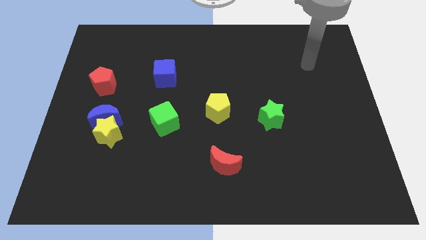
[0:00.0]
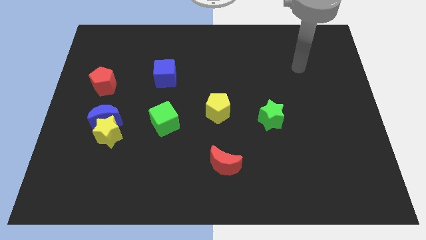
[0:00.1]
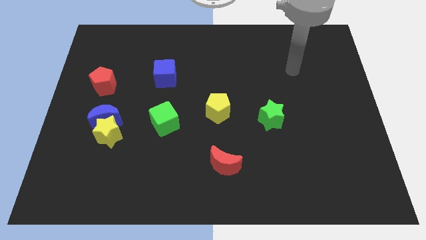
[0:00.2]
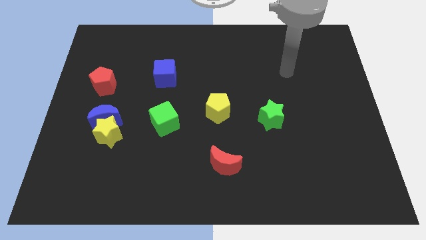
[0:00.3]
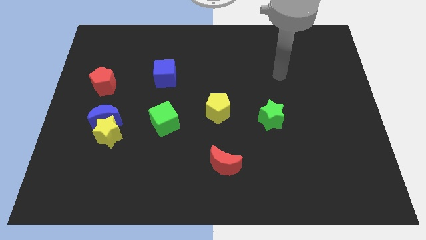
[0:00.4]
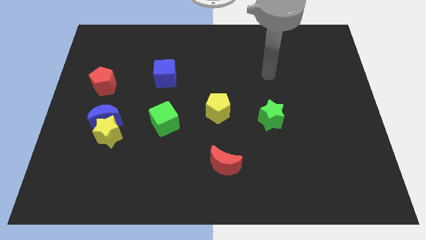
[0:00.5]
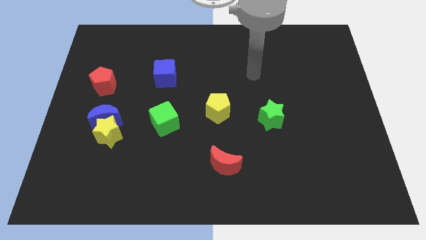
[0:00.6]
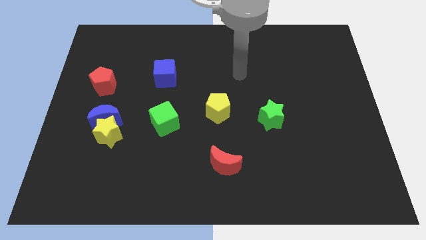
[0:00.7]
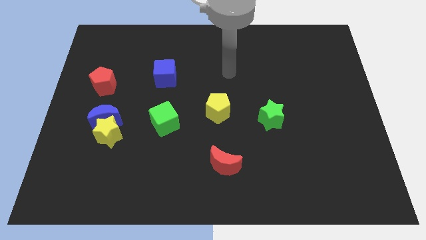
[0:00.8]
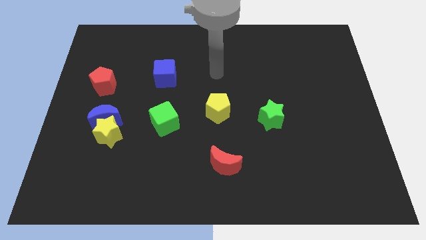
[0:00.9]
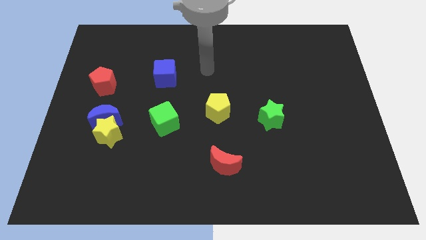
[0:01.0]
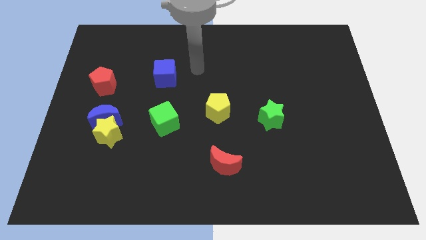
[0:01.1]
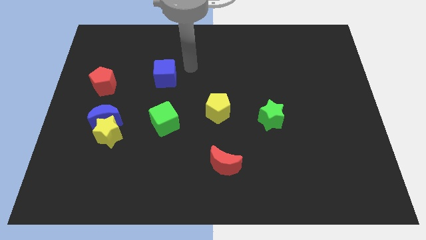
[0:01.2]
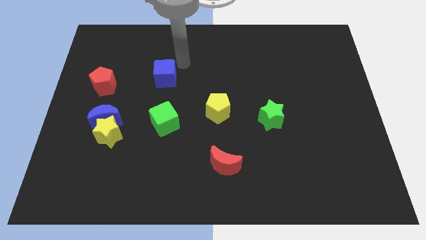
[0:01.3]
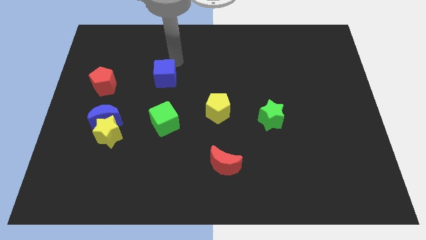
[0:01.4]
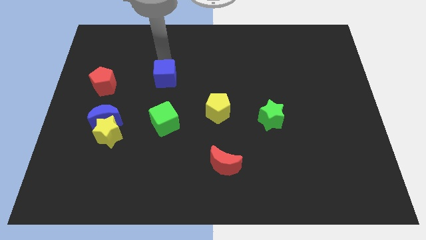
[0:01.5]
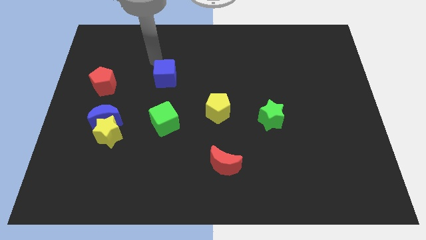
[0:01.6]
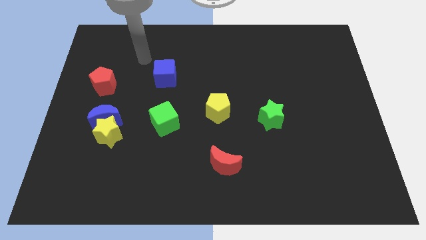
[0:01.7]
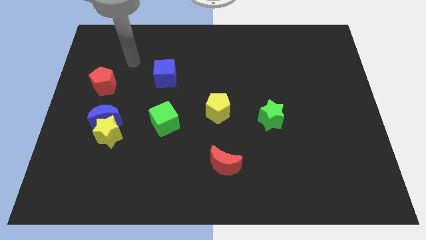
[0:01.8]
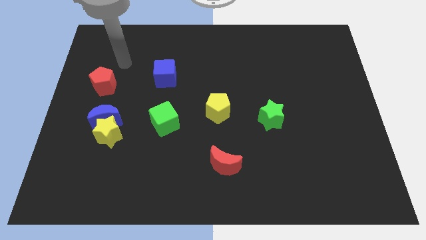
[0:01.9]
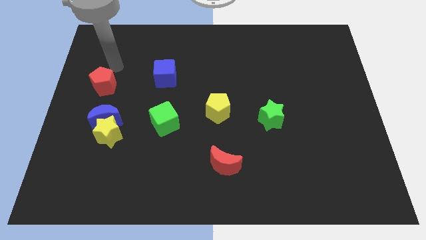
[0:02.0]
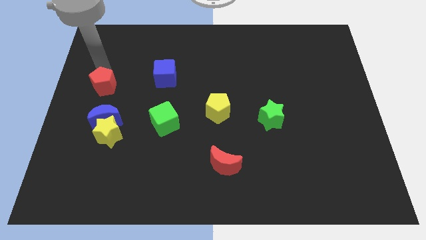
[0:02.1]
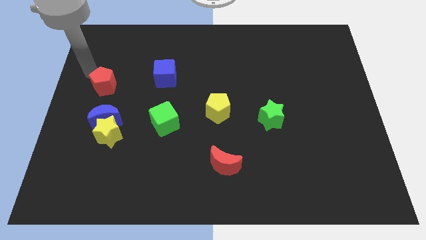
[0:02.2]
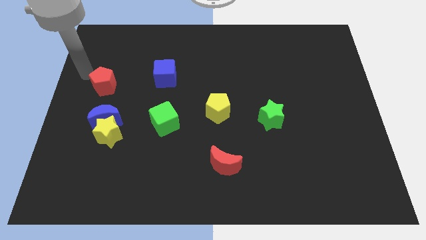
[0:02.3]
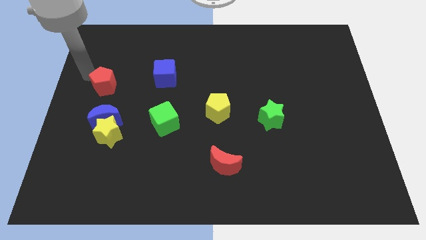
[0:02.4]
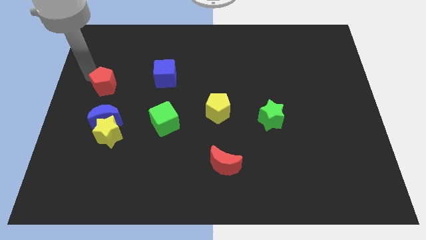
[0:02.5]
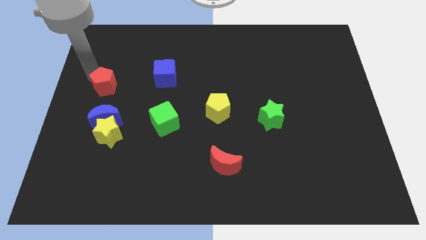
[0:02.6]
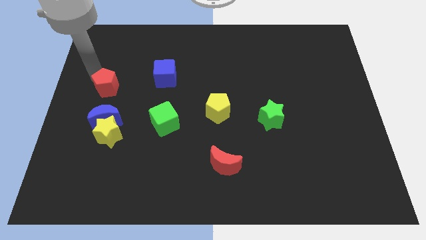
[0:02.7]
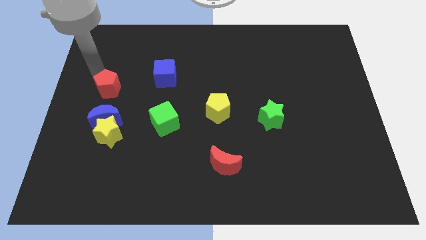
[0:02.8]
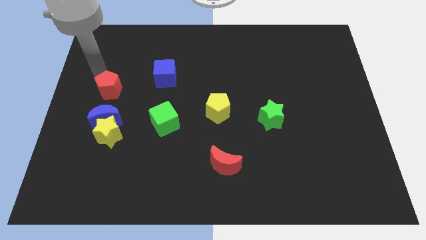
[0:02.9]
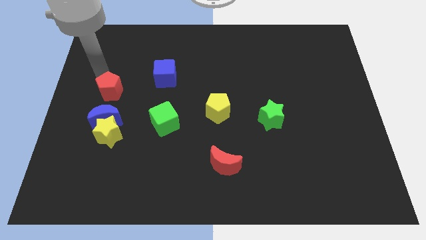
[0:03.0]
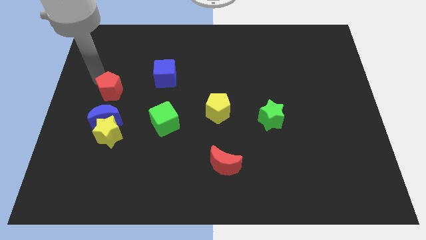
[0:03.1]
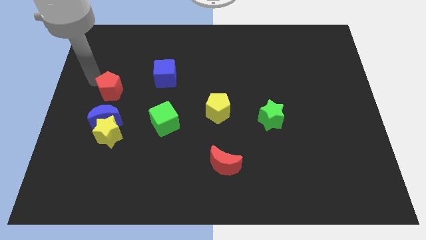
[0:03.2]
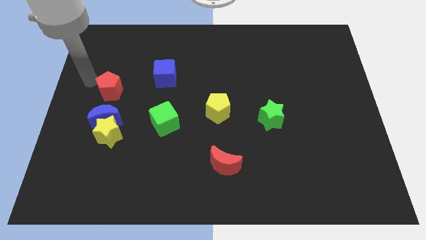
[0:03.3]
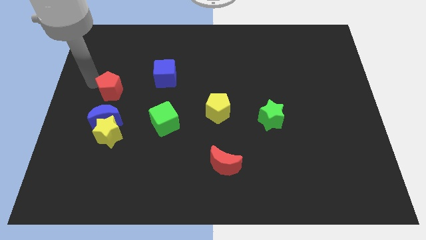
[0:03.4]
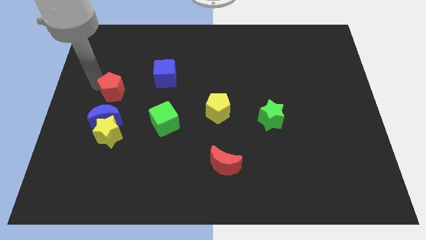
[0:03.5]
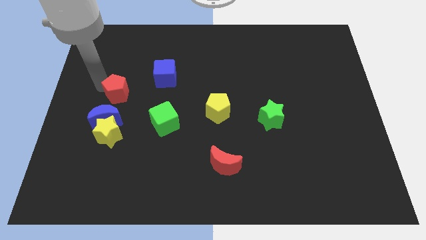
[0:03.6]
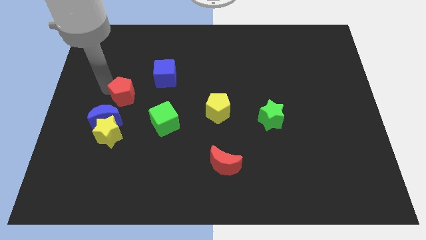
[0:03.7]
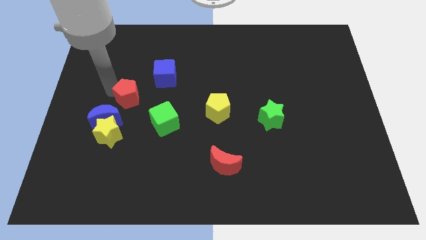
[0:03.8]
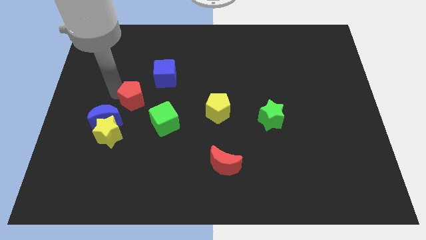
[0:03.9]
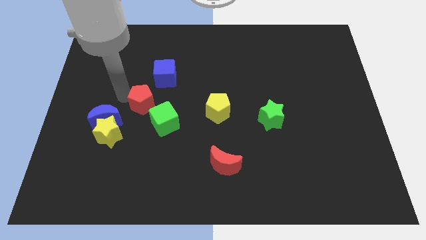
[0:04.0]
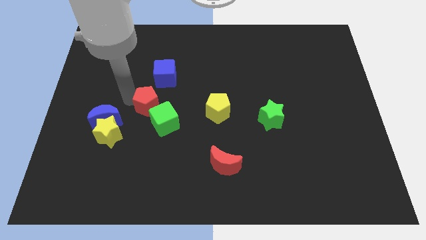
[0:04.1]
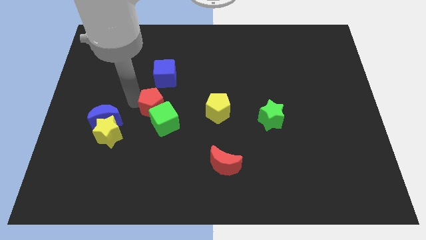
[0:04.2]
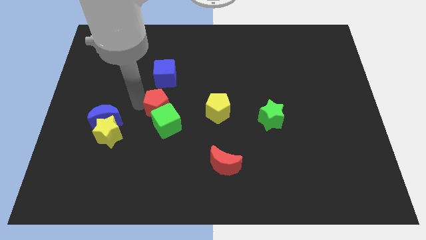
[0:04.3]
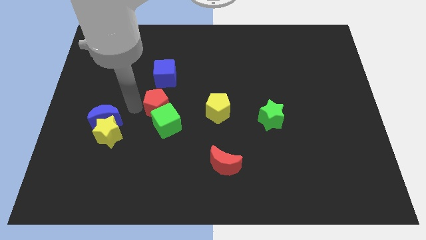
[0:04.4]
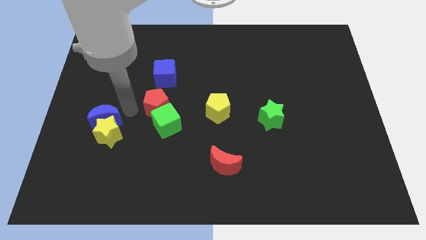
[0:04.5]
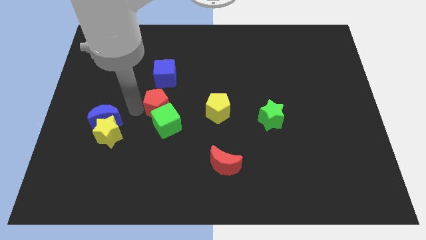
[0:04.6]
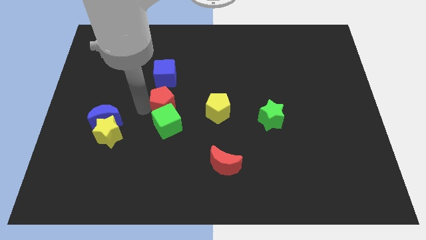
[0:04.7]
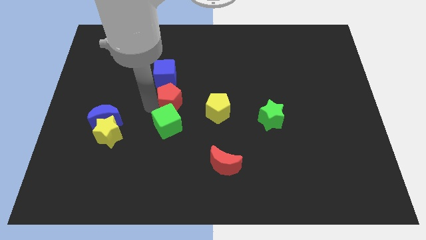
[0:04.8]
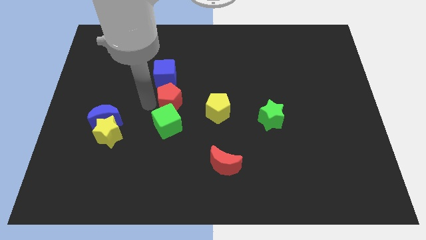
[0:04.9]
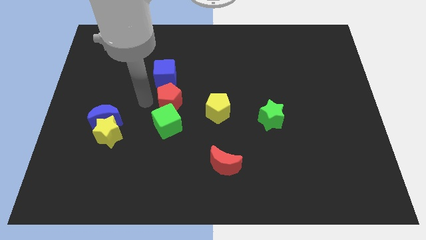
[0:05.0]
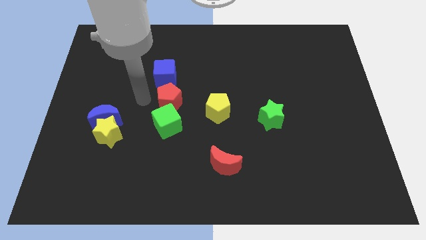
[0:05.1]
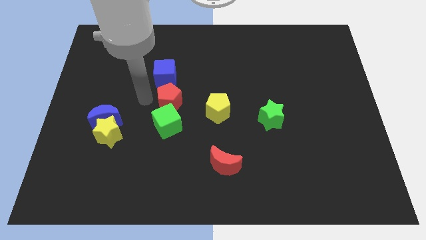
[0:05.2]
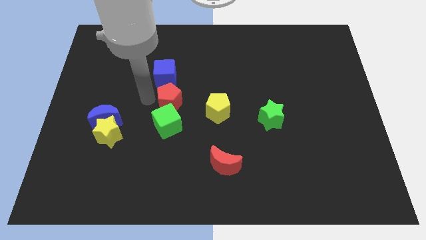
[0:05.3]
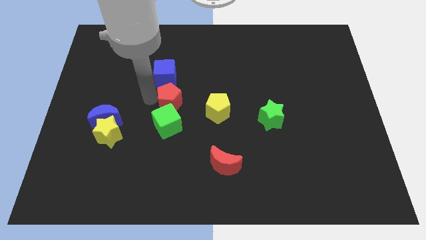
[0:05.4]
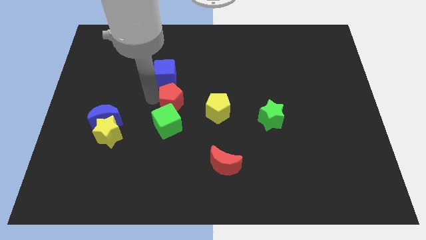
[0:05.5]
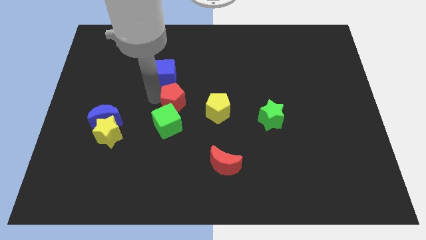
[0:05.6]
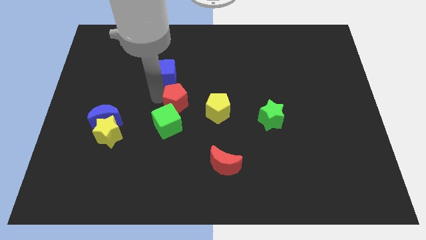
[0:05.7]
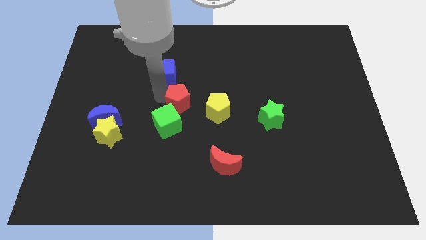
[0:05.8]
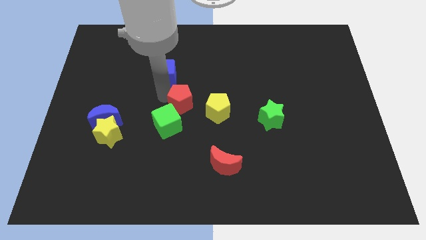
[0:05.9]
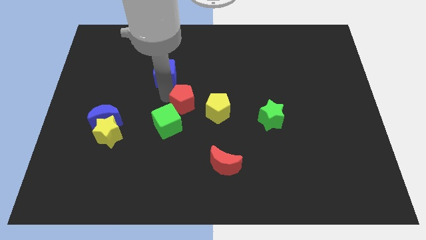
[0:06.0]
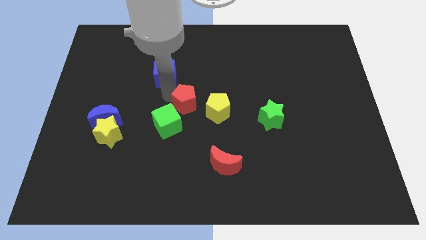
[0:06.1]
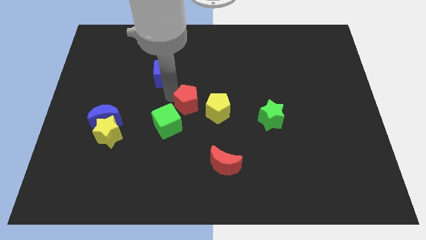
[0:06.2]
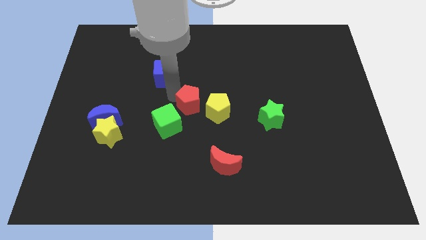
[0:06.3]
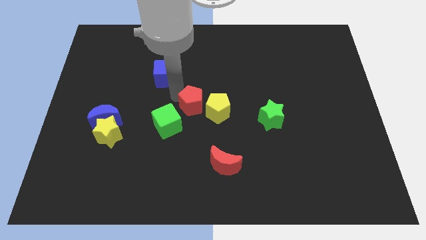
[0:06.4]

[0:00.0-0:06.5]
slide the red pentagon towards the yellow pentagon

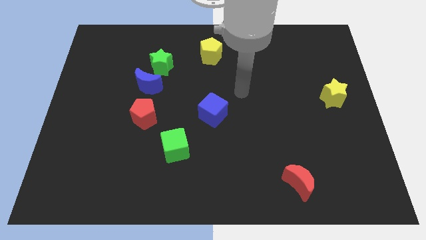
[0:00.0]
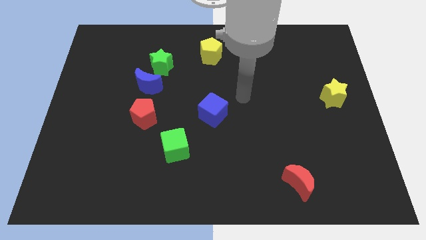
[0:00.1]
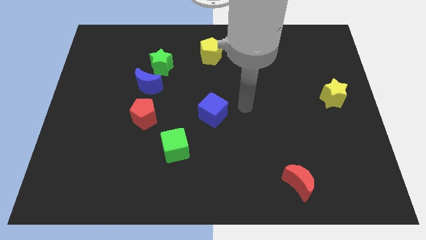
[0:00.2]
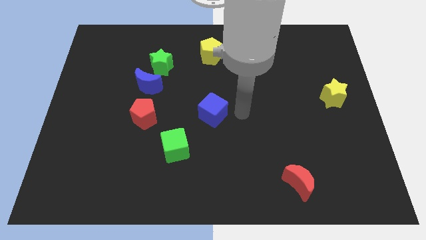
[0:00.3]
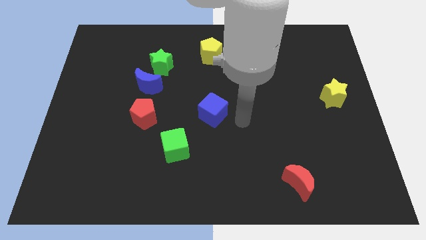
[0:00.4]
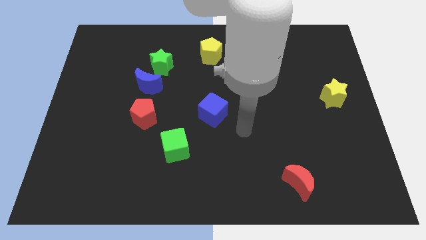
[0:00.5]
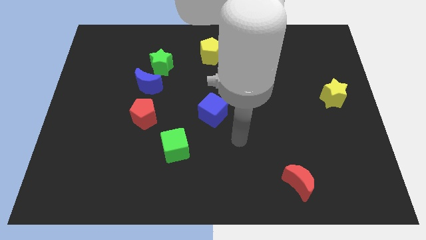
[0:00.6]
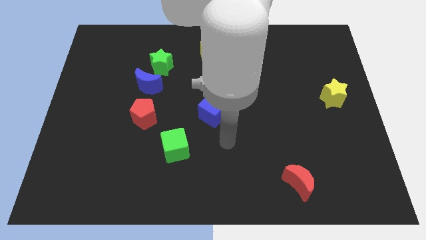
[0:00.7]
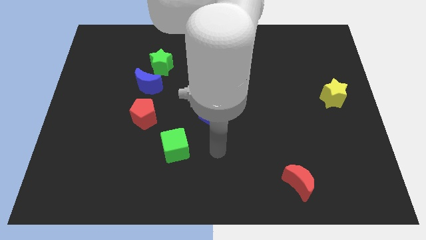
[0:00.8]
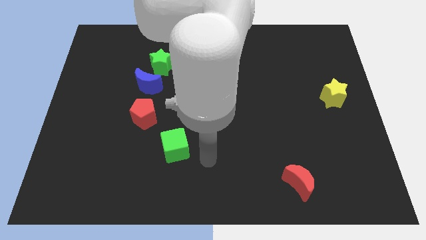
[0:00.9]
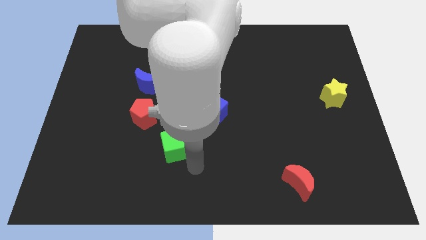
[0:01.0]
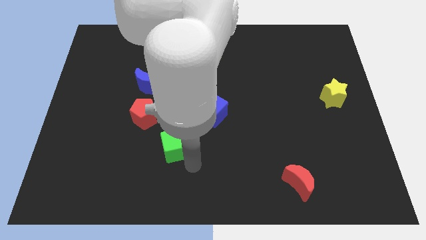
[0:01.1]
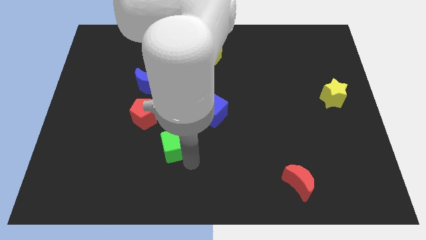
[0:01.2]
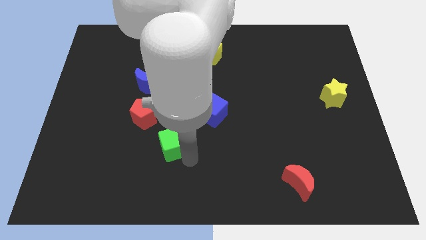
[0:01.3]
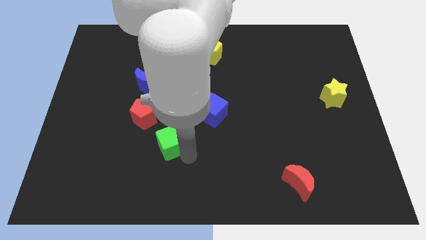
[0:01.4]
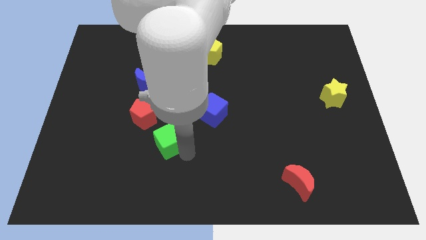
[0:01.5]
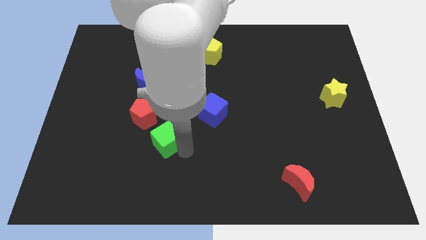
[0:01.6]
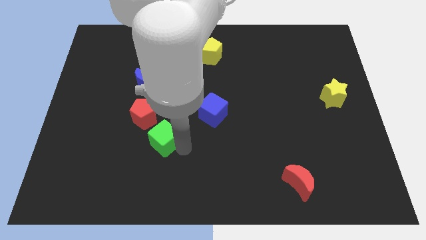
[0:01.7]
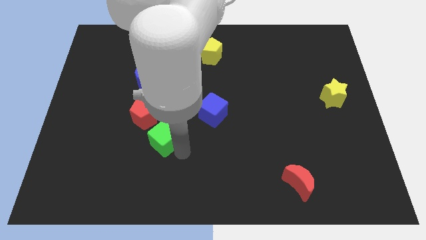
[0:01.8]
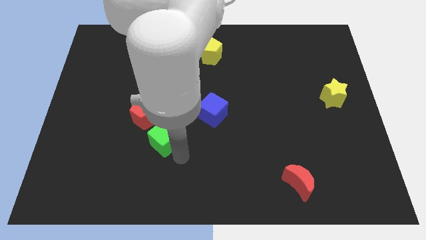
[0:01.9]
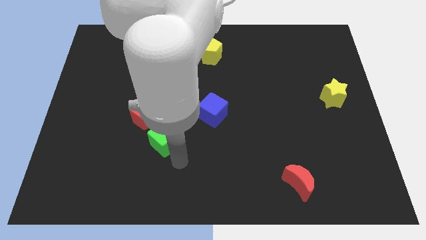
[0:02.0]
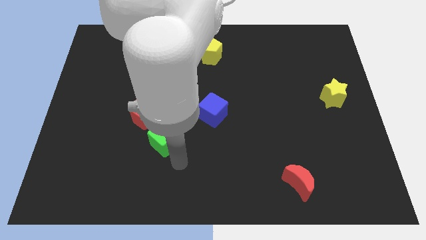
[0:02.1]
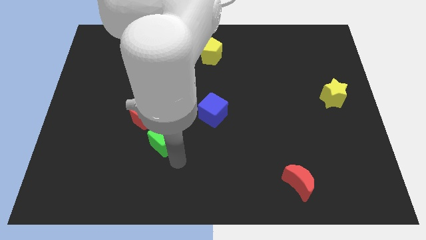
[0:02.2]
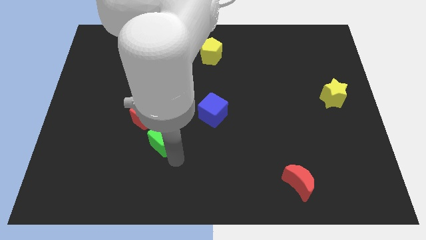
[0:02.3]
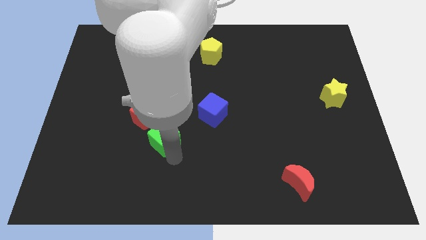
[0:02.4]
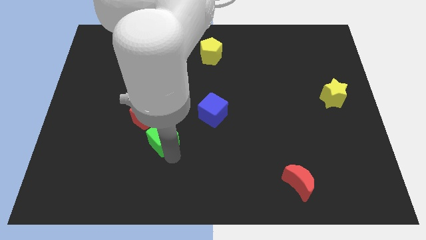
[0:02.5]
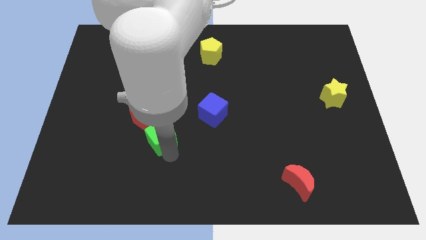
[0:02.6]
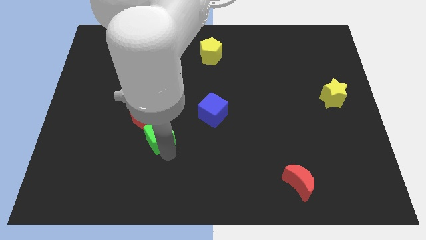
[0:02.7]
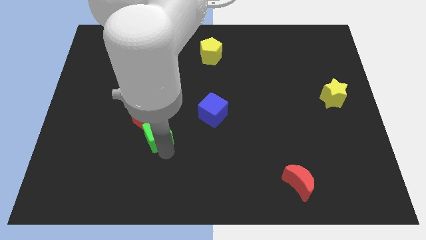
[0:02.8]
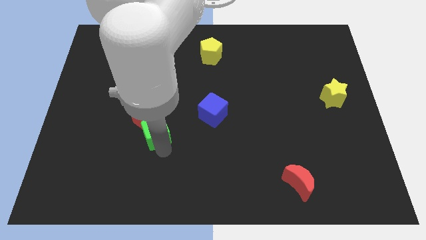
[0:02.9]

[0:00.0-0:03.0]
put the green cube towards the red pentagon
